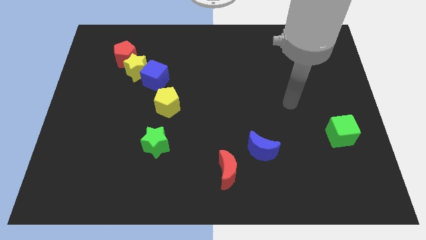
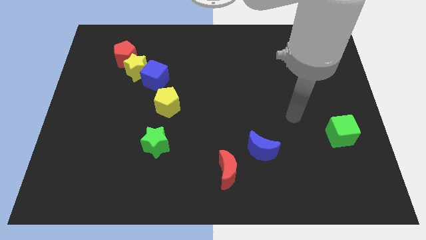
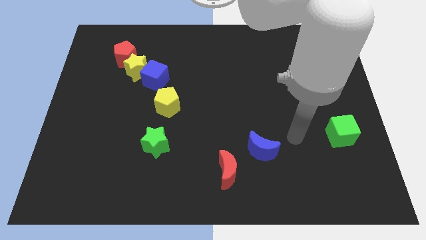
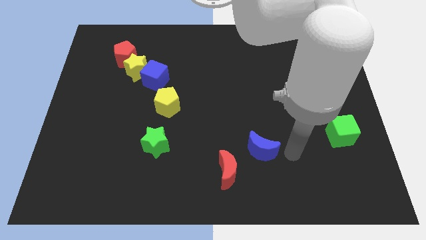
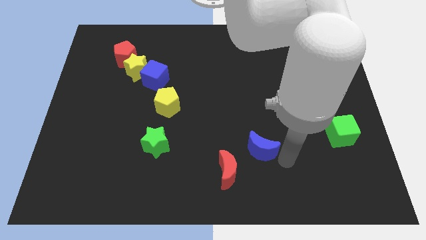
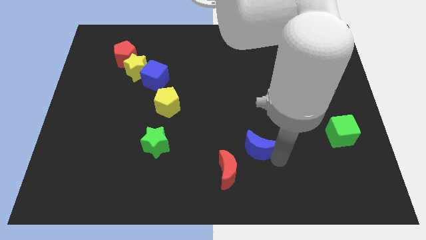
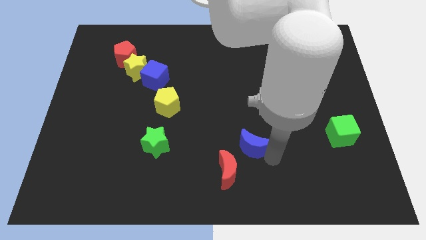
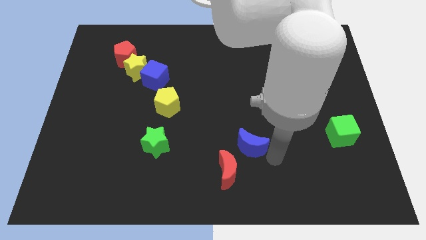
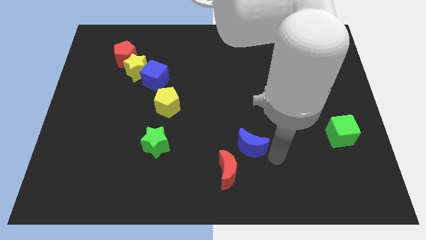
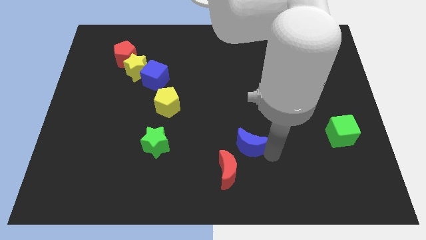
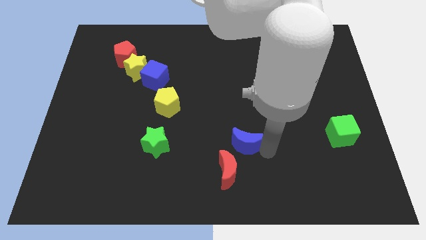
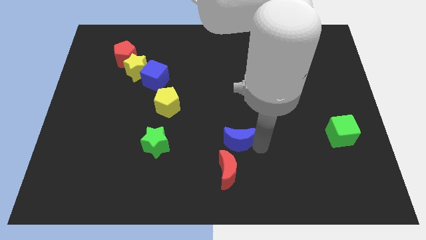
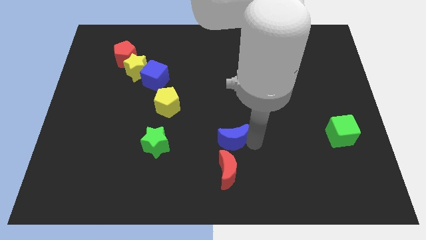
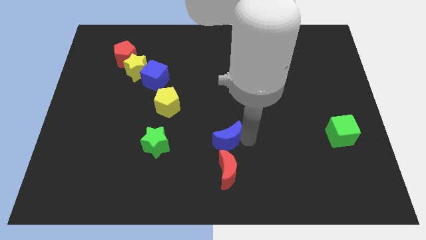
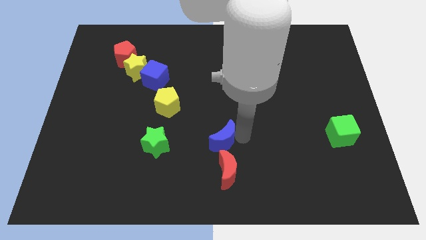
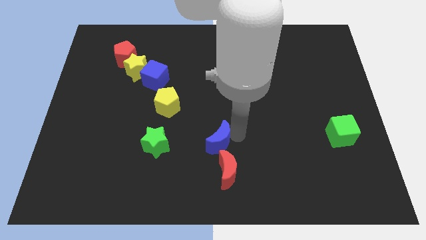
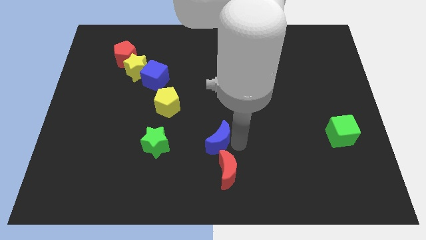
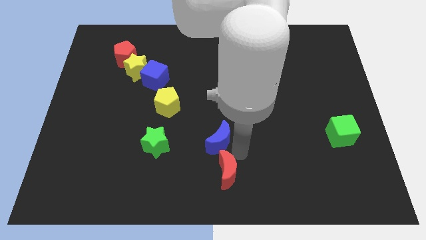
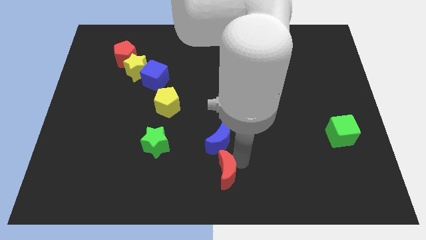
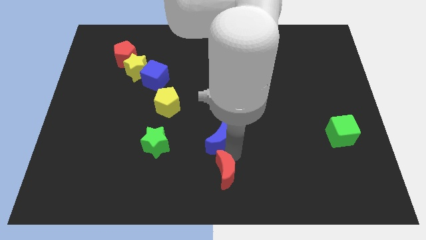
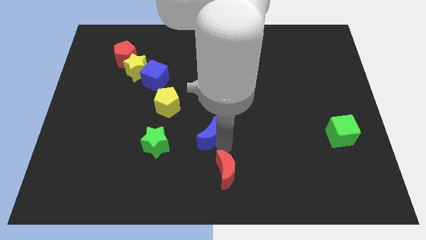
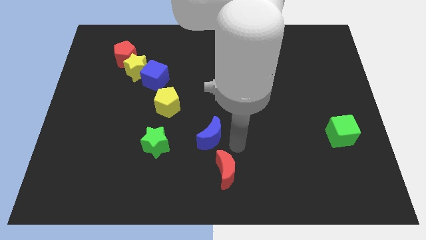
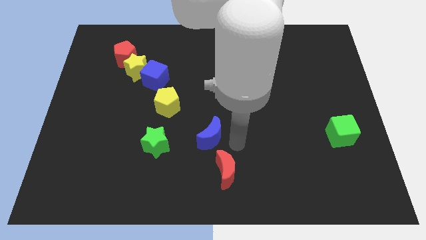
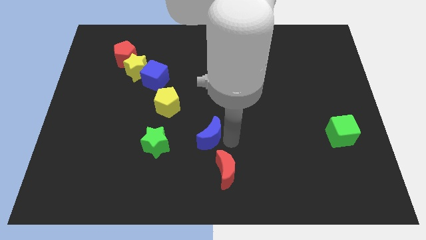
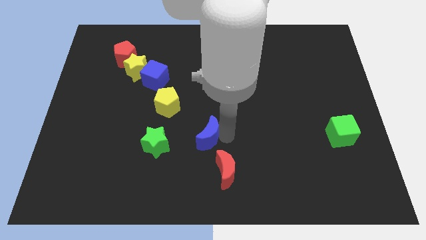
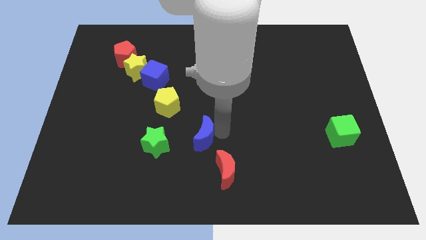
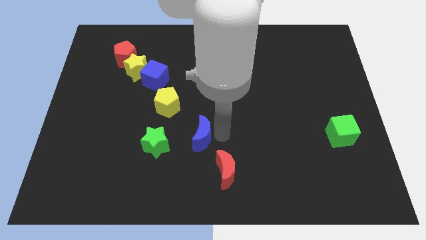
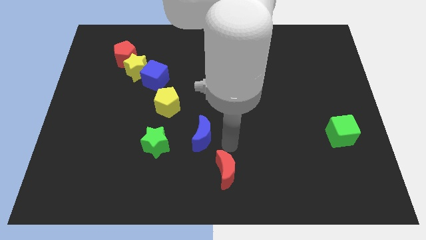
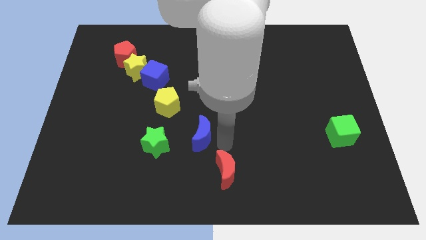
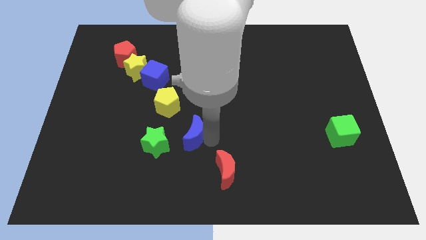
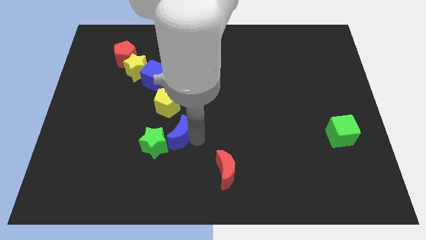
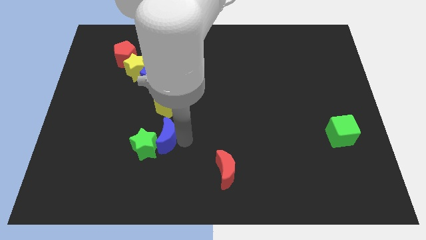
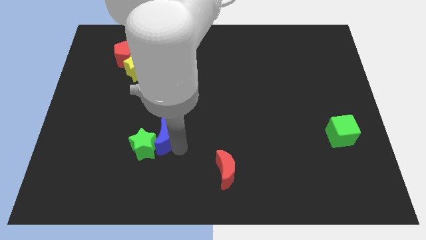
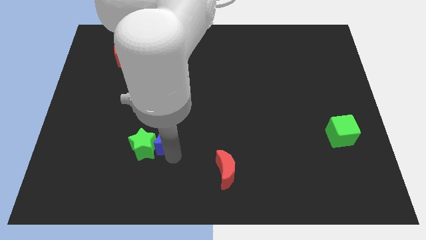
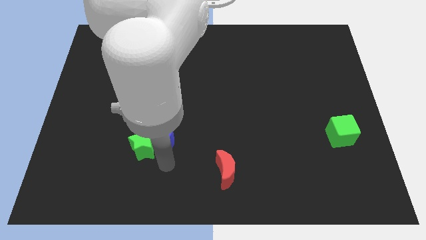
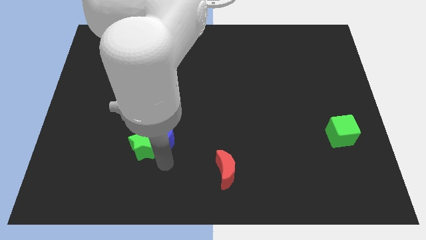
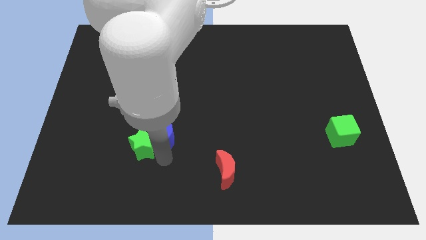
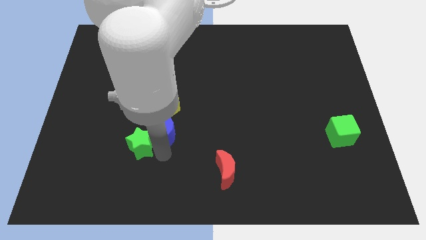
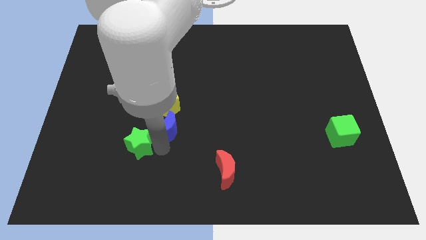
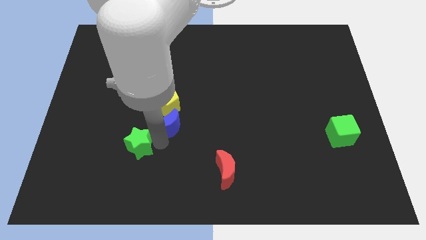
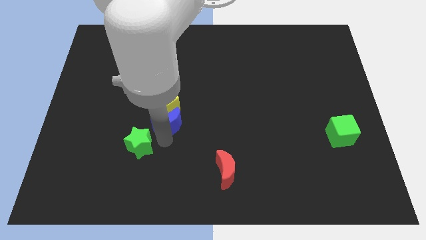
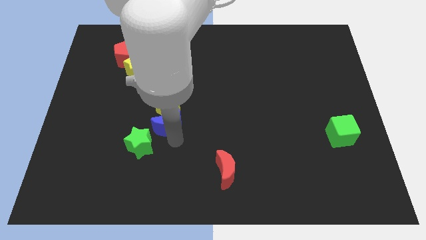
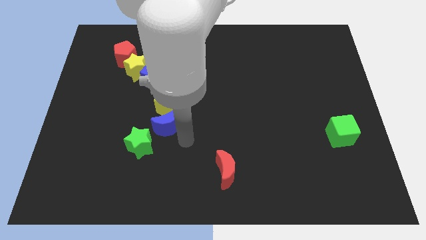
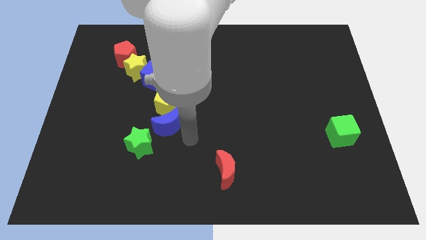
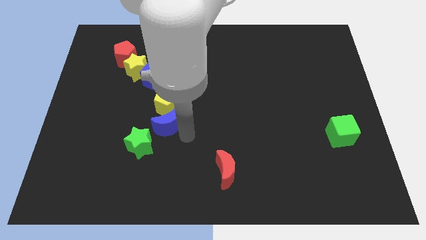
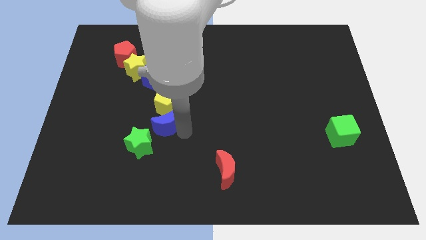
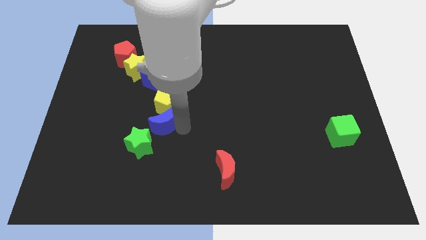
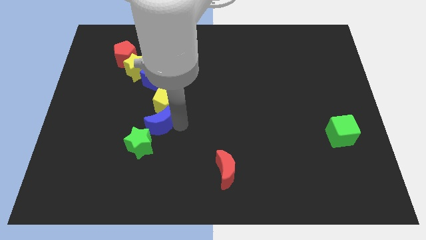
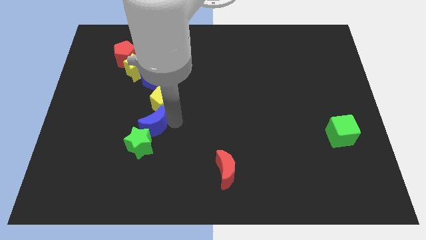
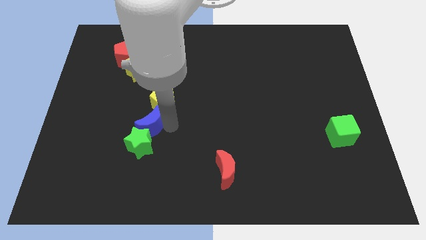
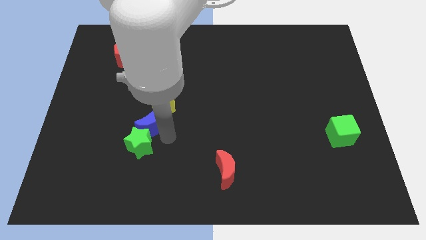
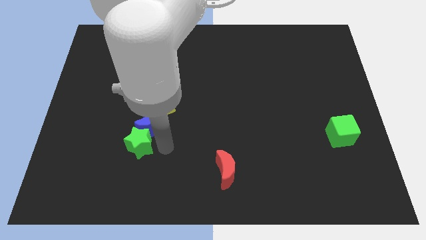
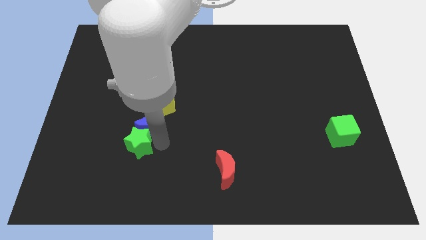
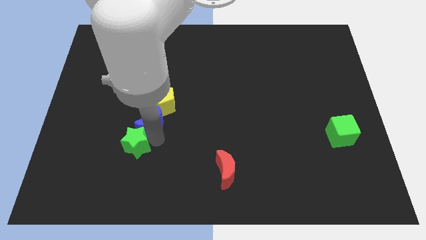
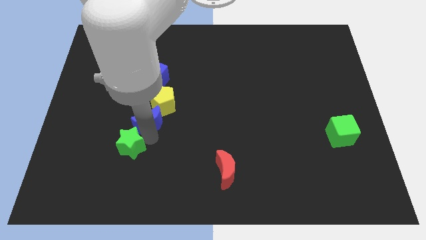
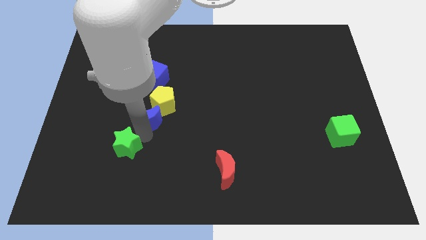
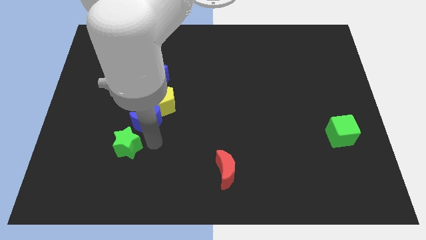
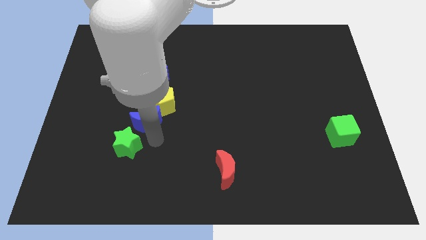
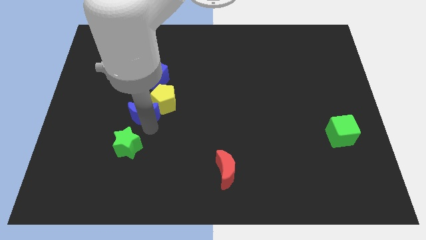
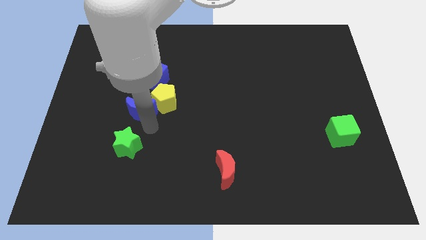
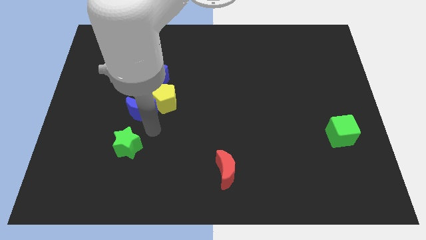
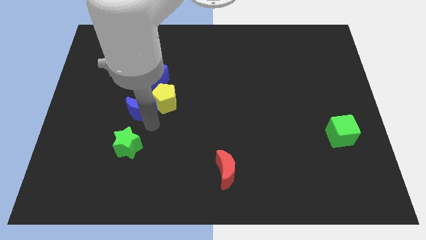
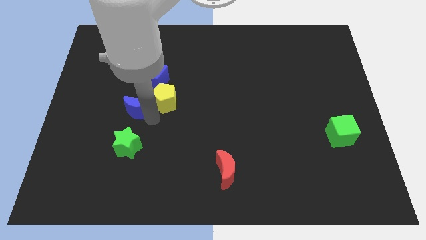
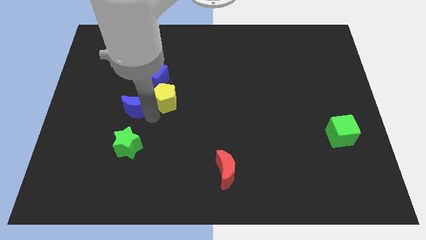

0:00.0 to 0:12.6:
move the blue moon to the bottom left of the blue cube
